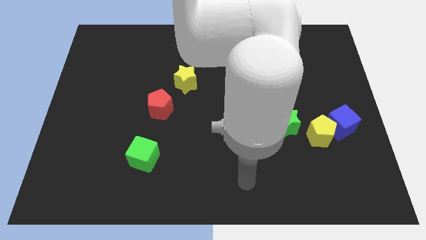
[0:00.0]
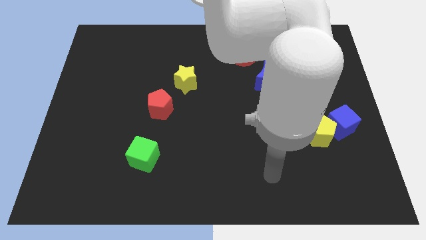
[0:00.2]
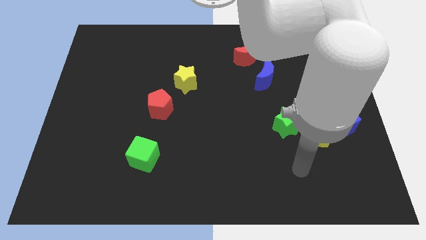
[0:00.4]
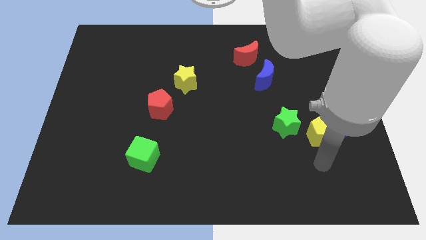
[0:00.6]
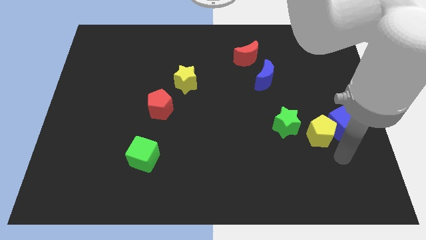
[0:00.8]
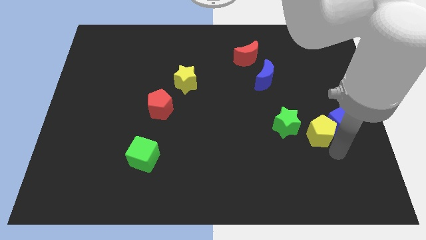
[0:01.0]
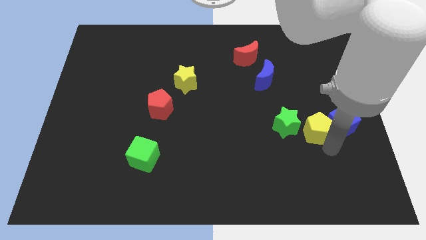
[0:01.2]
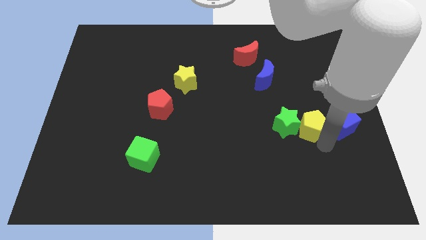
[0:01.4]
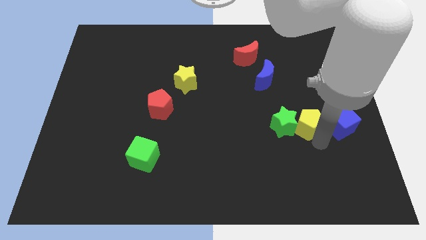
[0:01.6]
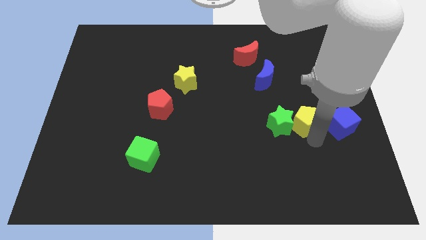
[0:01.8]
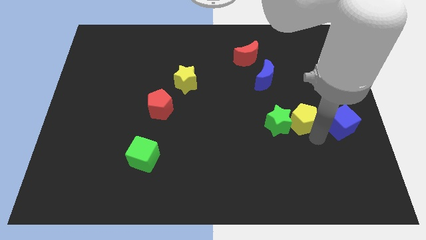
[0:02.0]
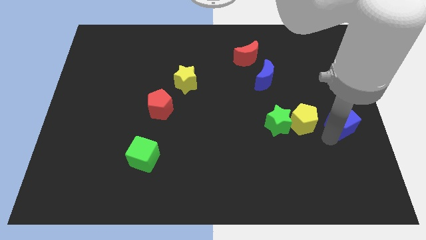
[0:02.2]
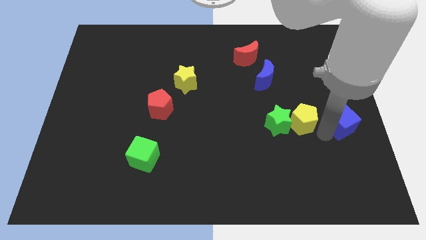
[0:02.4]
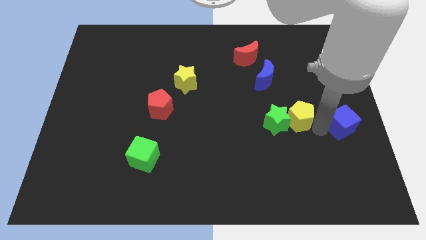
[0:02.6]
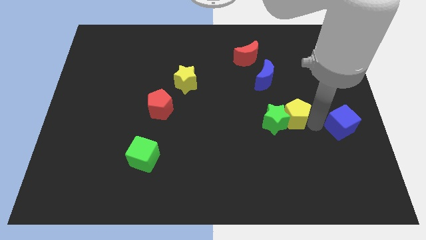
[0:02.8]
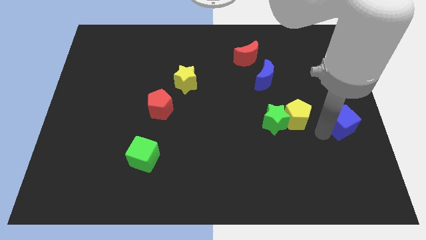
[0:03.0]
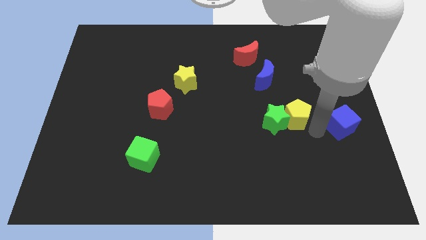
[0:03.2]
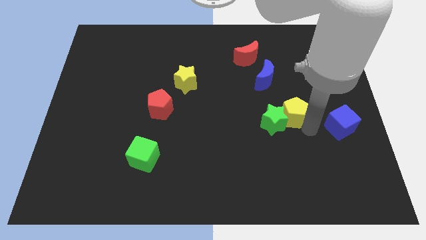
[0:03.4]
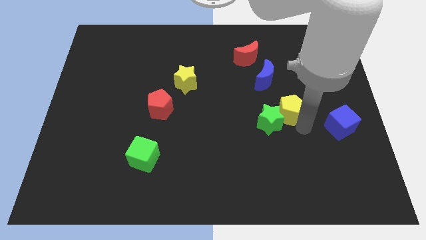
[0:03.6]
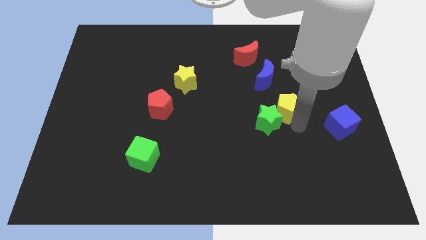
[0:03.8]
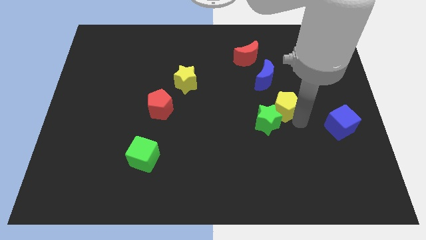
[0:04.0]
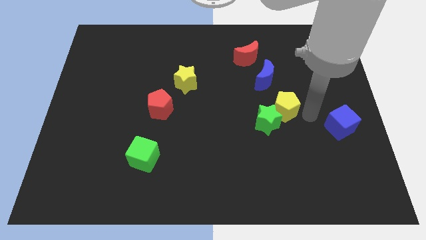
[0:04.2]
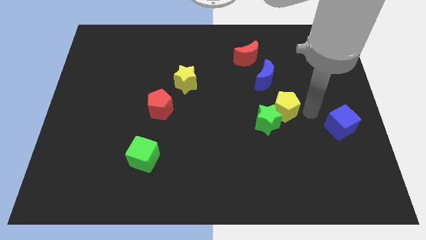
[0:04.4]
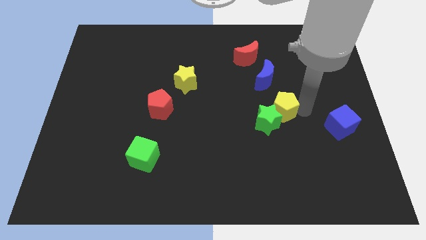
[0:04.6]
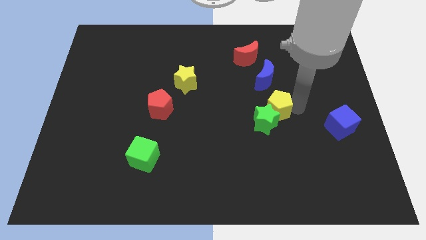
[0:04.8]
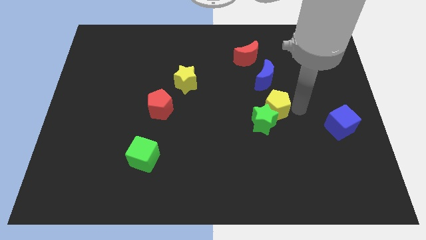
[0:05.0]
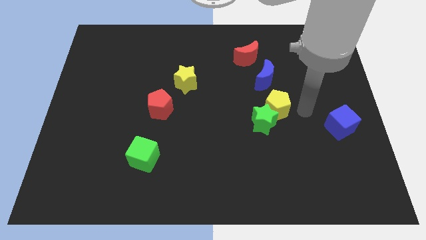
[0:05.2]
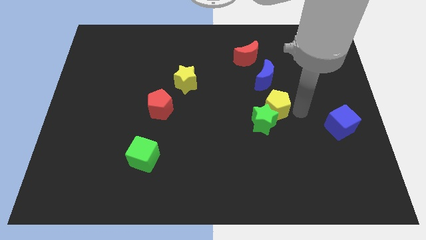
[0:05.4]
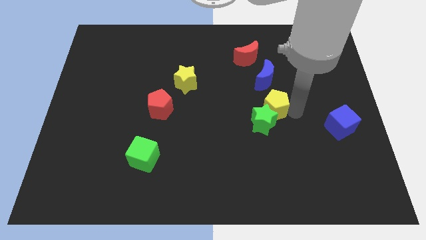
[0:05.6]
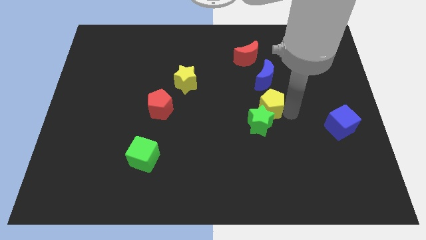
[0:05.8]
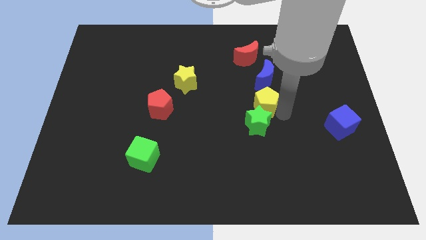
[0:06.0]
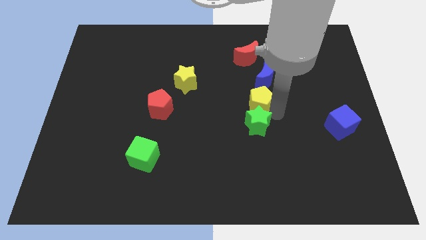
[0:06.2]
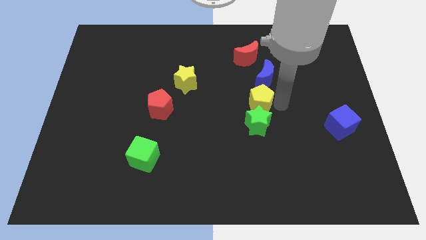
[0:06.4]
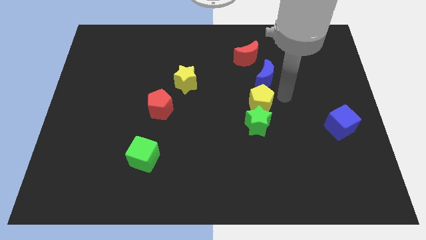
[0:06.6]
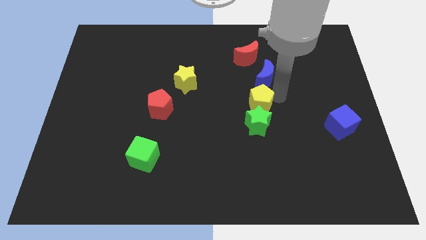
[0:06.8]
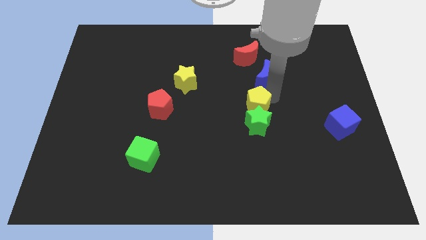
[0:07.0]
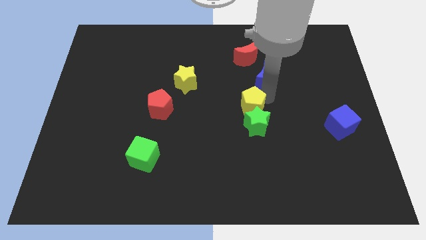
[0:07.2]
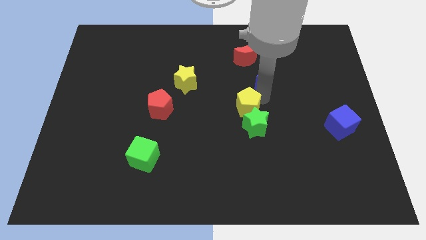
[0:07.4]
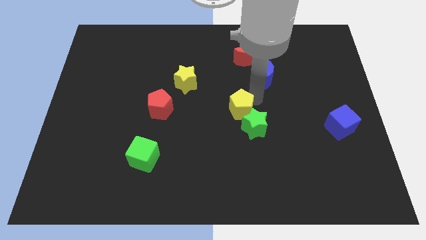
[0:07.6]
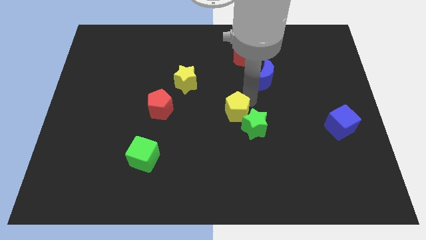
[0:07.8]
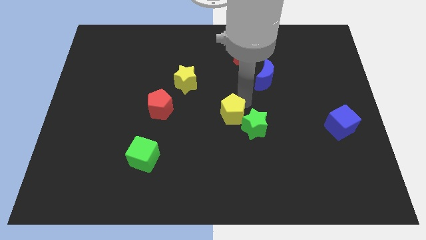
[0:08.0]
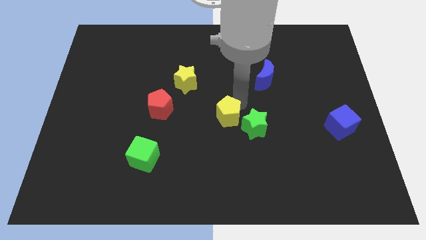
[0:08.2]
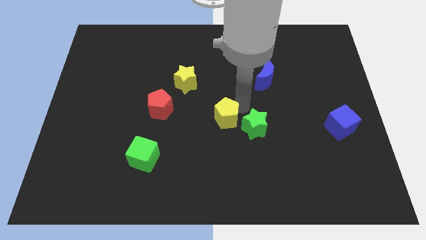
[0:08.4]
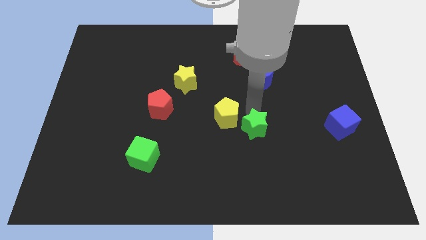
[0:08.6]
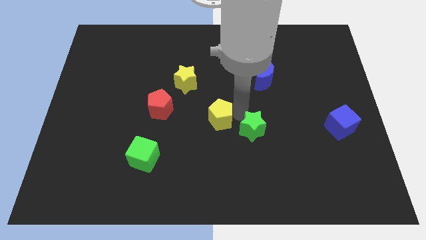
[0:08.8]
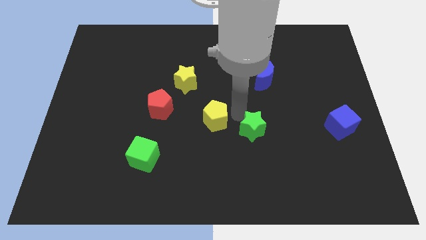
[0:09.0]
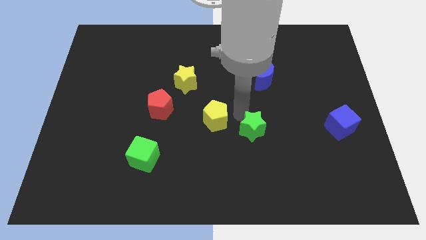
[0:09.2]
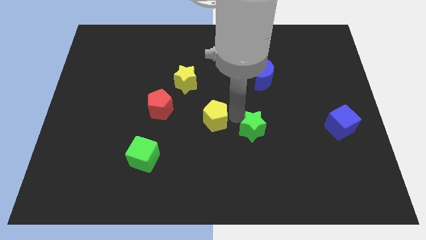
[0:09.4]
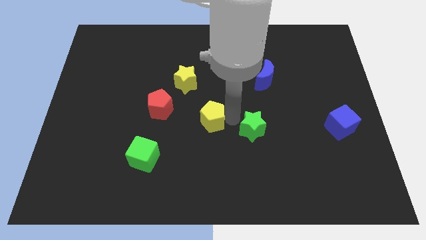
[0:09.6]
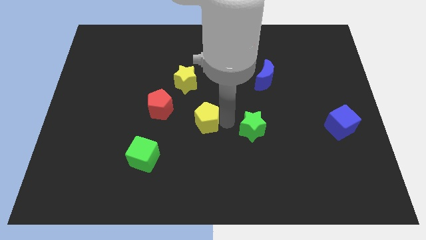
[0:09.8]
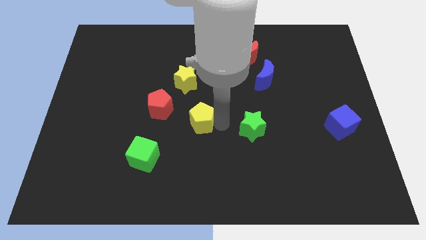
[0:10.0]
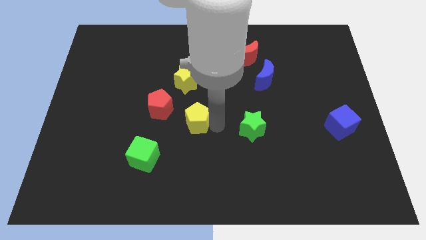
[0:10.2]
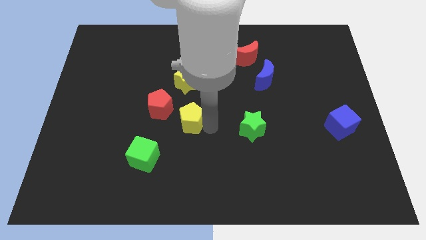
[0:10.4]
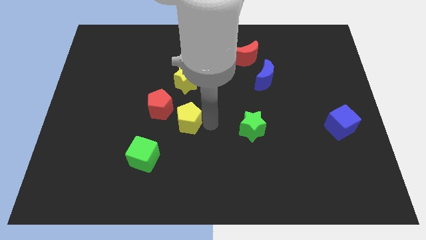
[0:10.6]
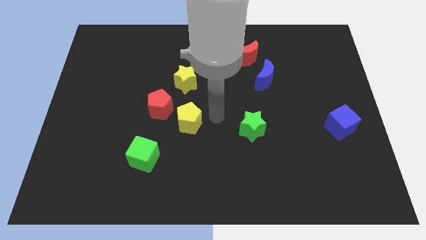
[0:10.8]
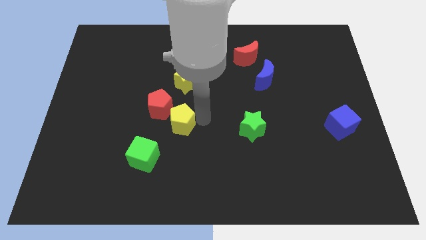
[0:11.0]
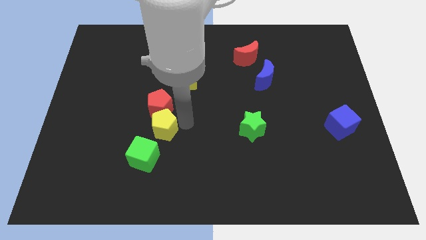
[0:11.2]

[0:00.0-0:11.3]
slide the yellow pentagon to the bottom left of the red pentagon
